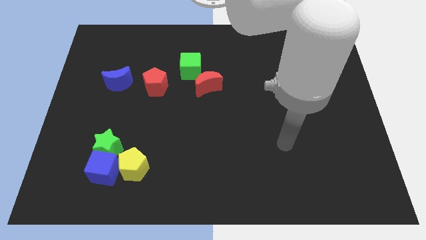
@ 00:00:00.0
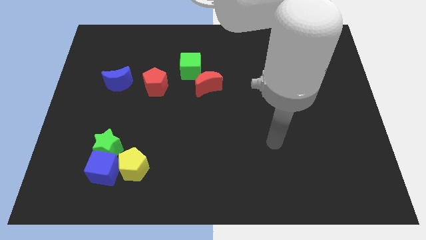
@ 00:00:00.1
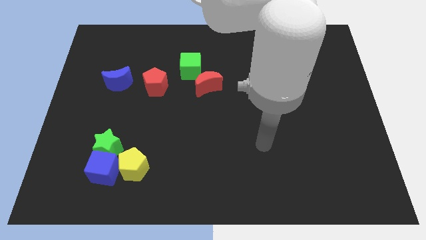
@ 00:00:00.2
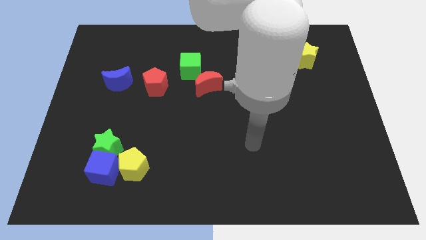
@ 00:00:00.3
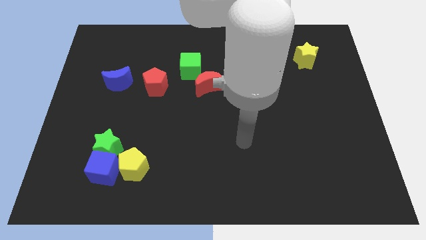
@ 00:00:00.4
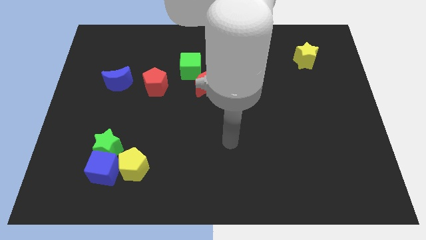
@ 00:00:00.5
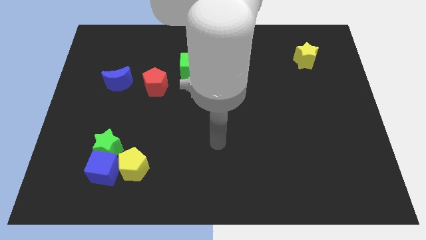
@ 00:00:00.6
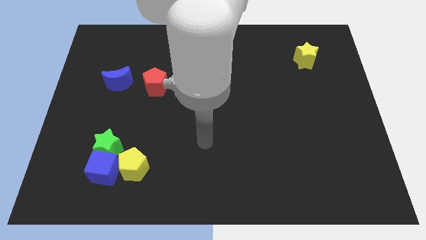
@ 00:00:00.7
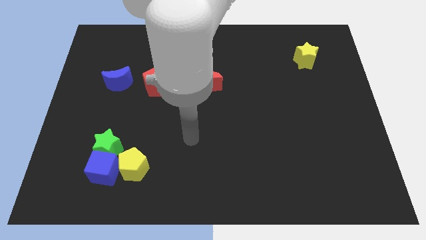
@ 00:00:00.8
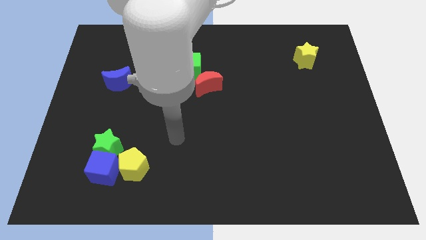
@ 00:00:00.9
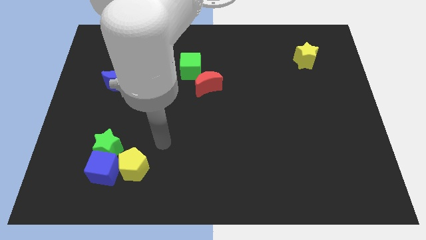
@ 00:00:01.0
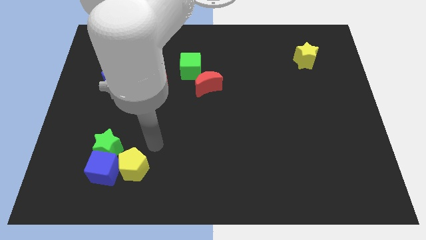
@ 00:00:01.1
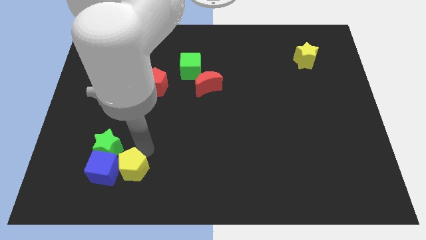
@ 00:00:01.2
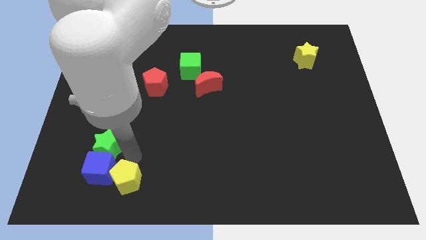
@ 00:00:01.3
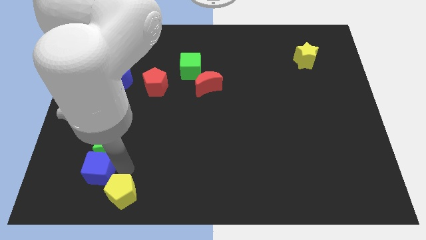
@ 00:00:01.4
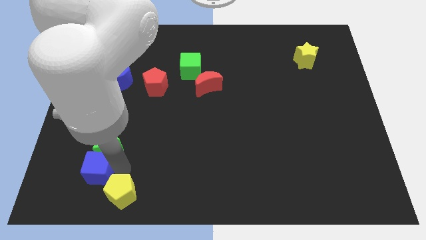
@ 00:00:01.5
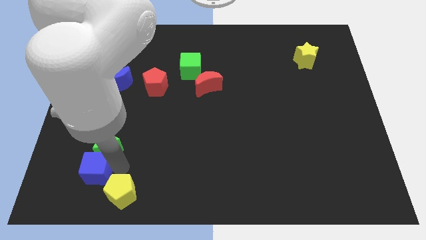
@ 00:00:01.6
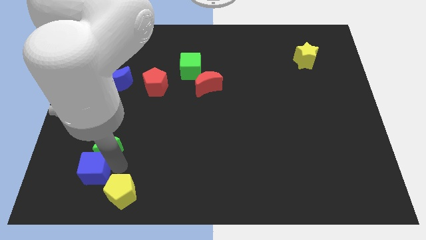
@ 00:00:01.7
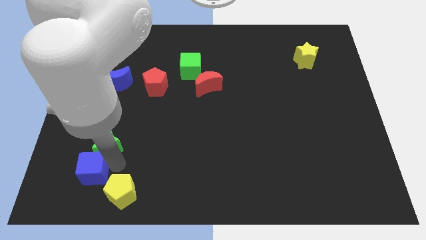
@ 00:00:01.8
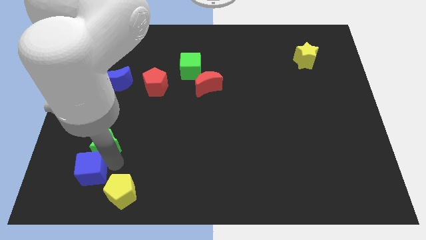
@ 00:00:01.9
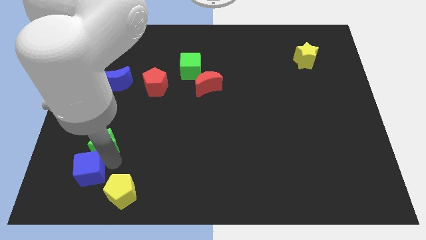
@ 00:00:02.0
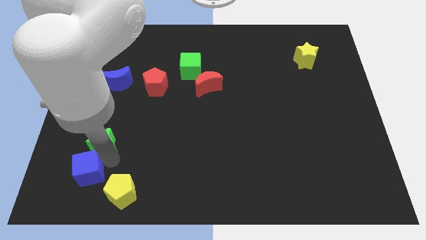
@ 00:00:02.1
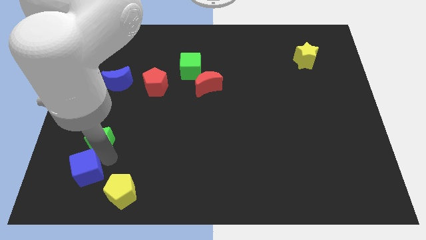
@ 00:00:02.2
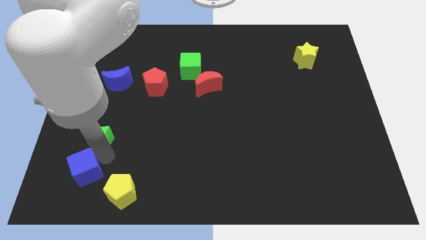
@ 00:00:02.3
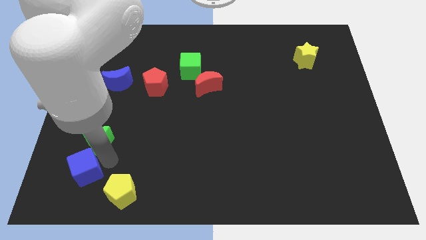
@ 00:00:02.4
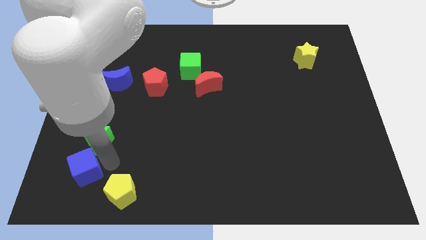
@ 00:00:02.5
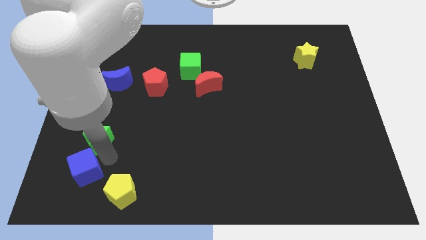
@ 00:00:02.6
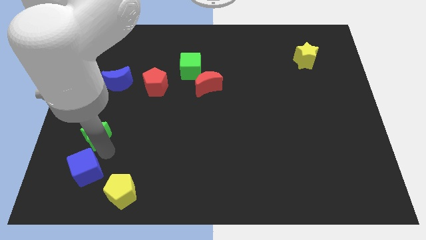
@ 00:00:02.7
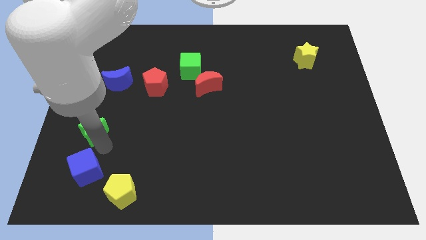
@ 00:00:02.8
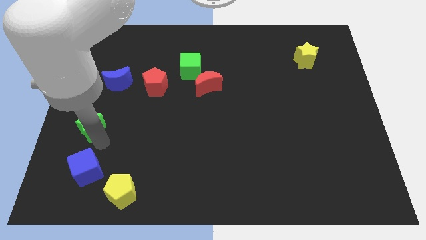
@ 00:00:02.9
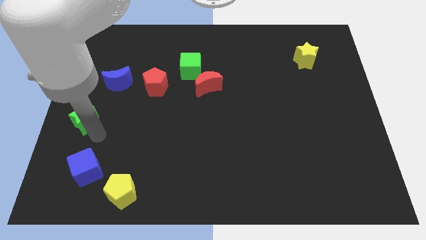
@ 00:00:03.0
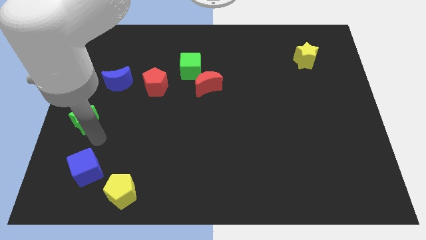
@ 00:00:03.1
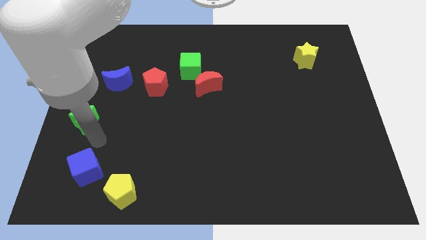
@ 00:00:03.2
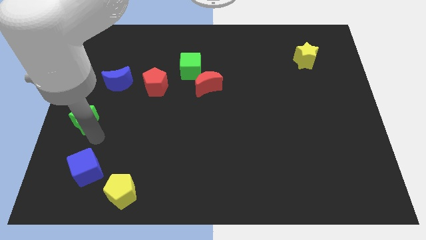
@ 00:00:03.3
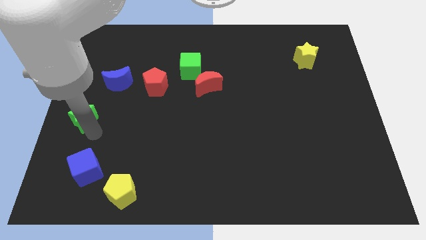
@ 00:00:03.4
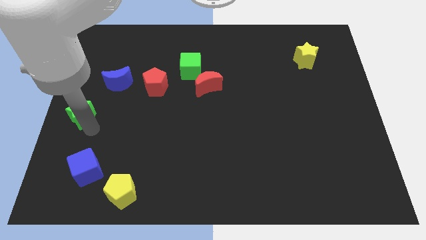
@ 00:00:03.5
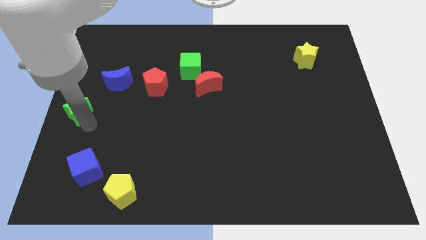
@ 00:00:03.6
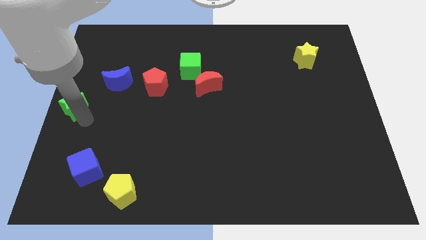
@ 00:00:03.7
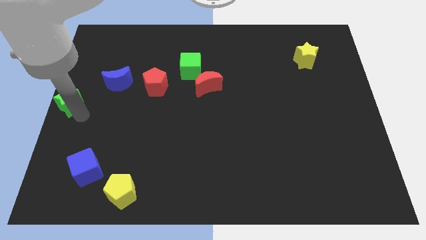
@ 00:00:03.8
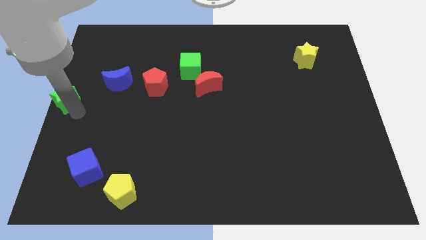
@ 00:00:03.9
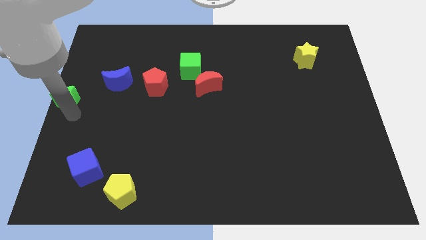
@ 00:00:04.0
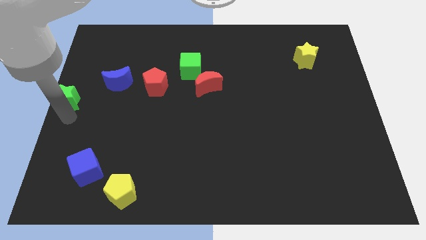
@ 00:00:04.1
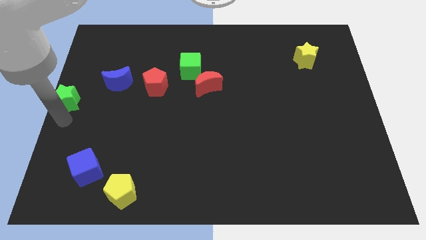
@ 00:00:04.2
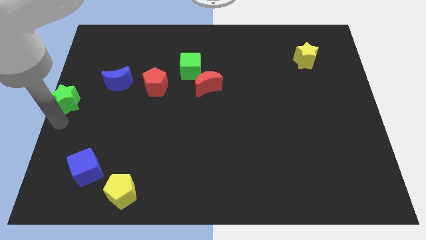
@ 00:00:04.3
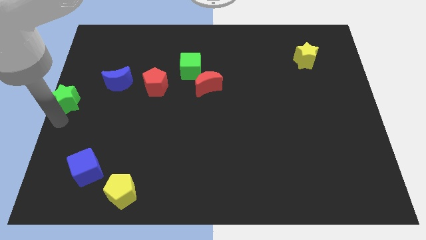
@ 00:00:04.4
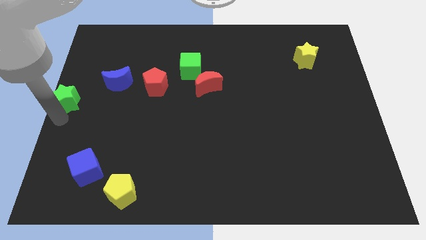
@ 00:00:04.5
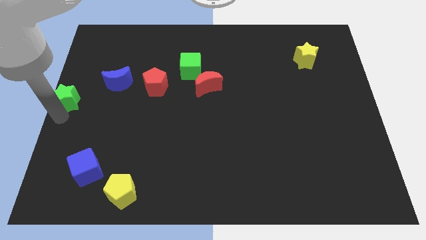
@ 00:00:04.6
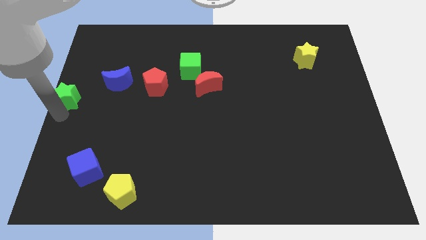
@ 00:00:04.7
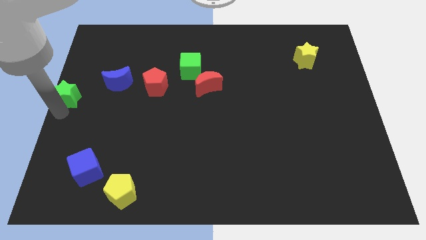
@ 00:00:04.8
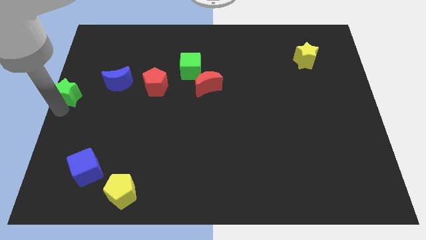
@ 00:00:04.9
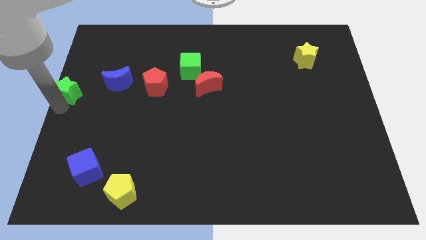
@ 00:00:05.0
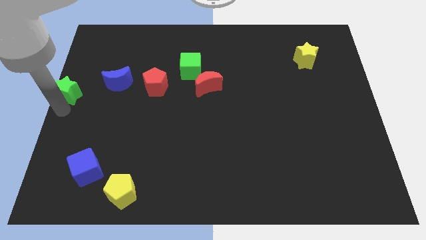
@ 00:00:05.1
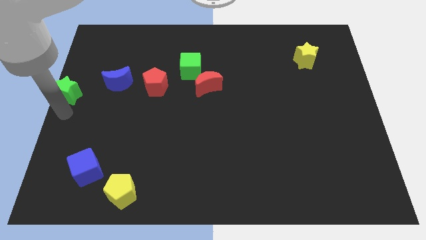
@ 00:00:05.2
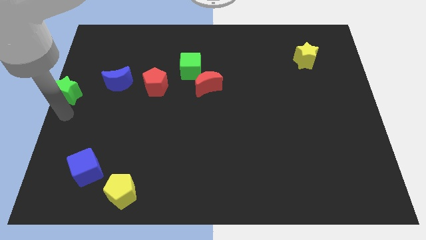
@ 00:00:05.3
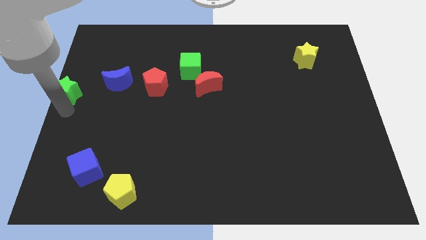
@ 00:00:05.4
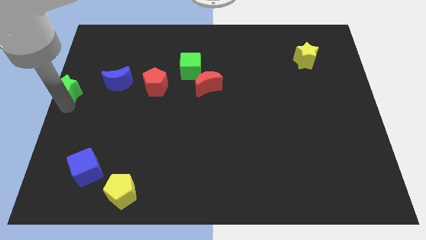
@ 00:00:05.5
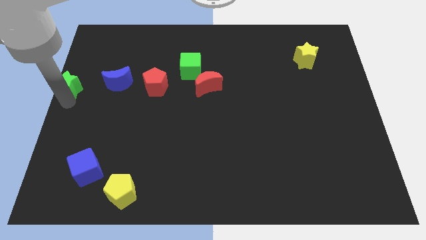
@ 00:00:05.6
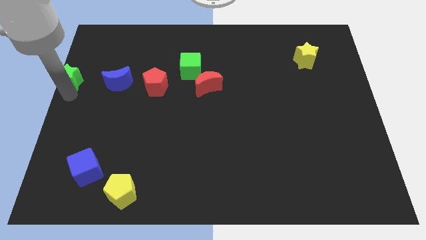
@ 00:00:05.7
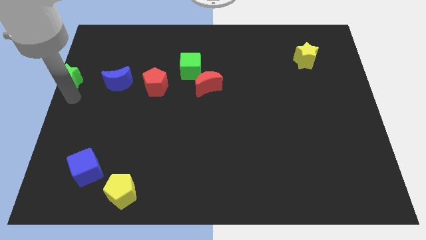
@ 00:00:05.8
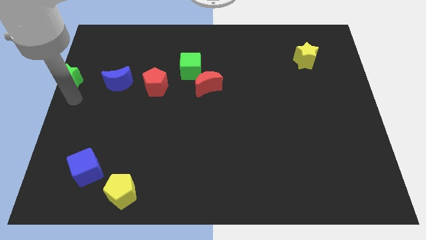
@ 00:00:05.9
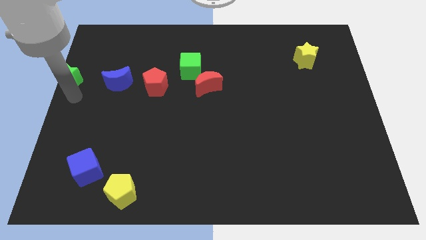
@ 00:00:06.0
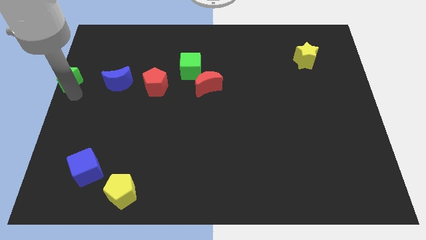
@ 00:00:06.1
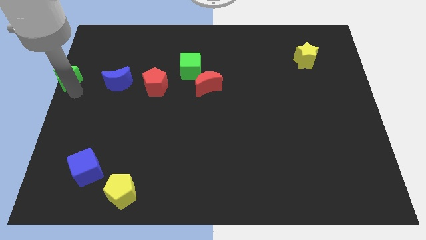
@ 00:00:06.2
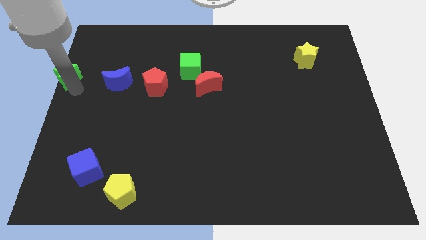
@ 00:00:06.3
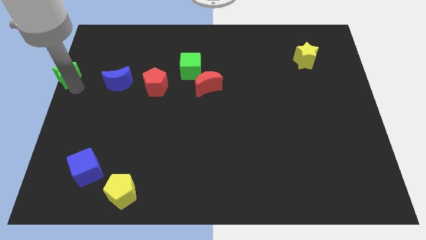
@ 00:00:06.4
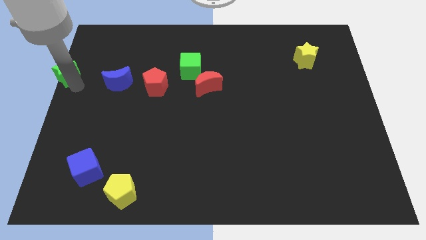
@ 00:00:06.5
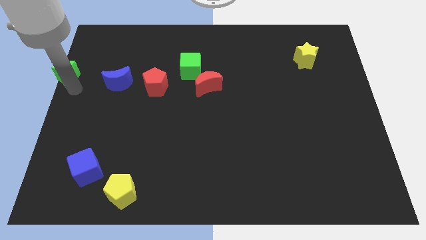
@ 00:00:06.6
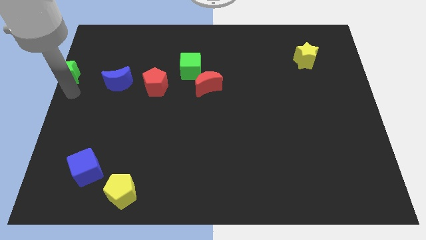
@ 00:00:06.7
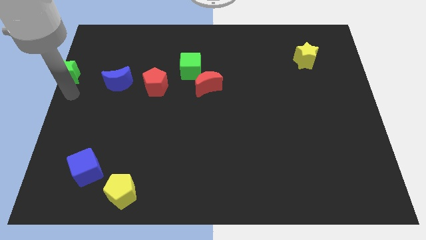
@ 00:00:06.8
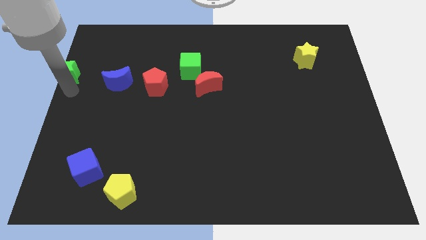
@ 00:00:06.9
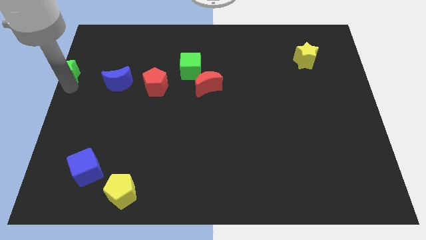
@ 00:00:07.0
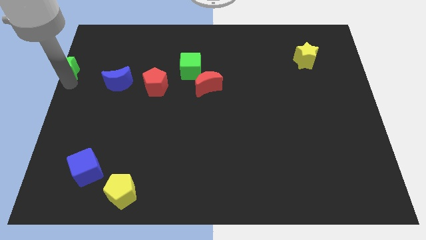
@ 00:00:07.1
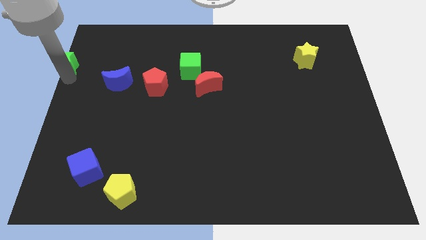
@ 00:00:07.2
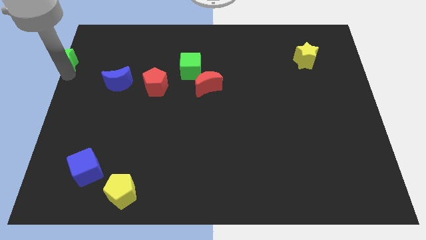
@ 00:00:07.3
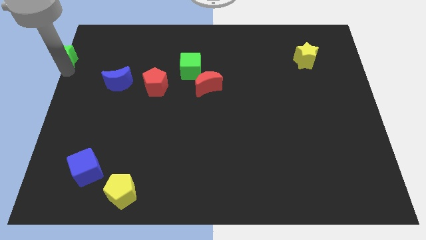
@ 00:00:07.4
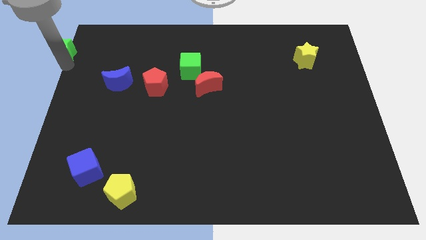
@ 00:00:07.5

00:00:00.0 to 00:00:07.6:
move the green star to the top left corner
